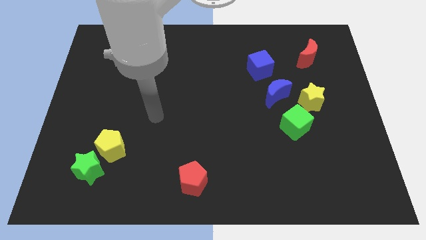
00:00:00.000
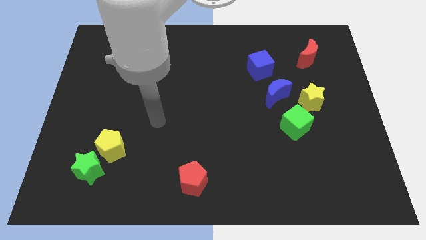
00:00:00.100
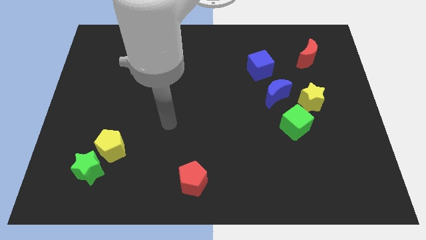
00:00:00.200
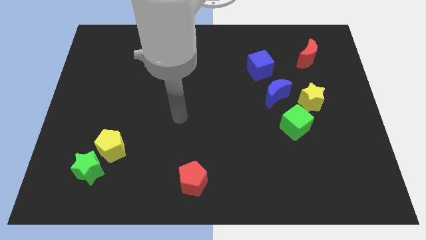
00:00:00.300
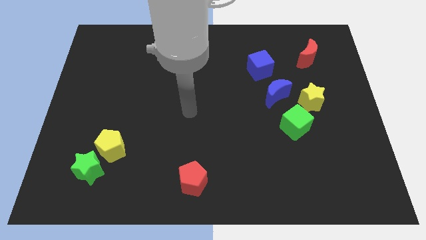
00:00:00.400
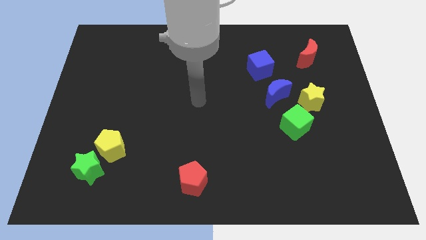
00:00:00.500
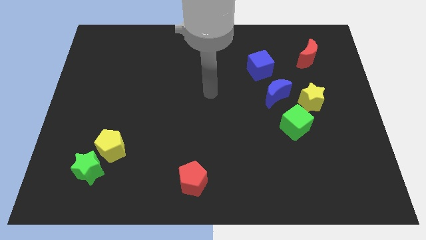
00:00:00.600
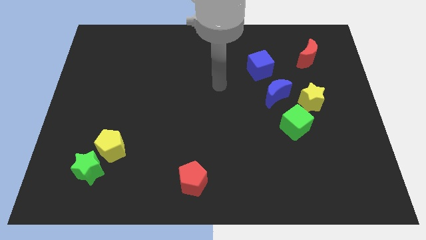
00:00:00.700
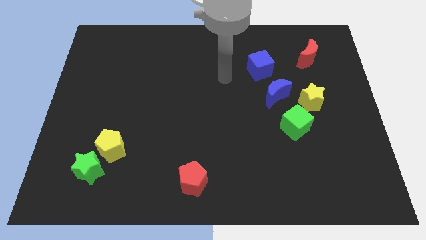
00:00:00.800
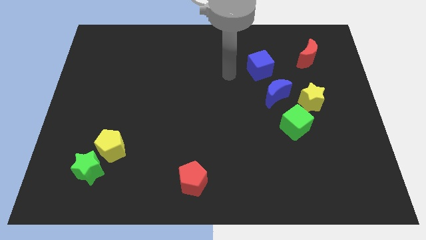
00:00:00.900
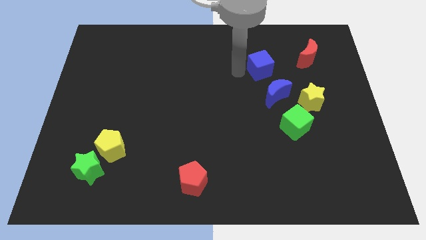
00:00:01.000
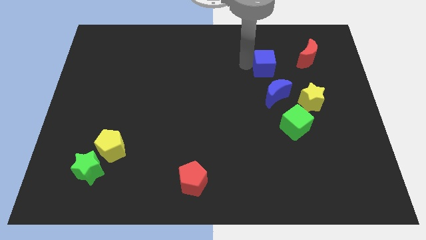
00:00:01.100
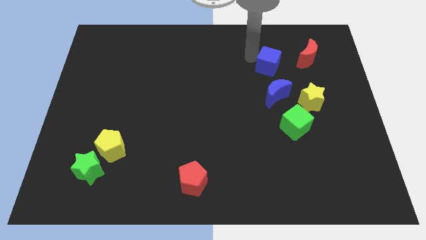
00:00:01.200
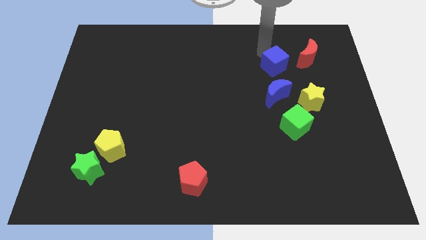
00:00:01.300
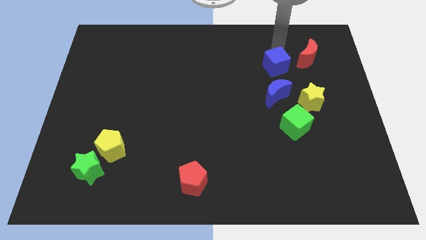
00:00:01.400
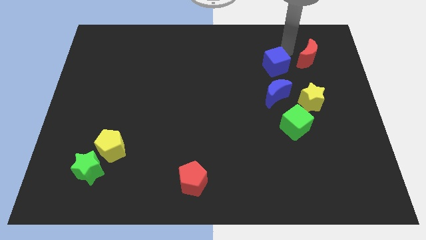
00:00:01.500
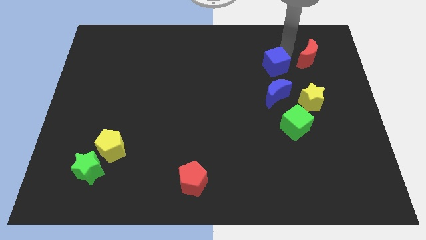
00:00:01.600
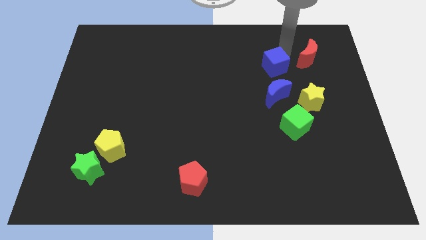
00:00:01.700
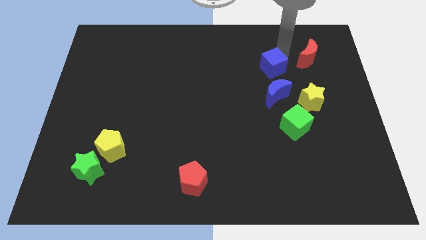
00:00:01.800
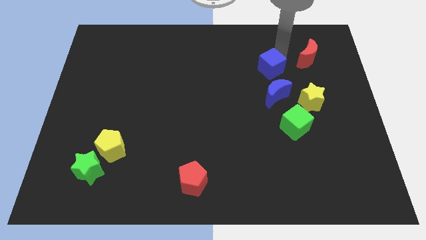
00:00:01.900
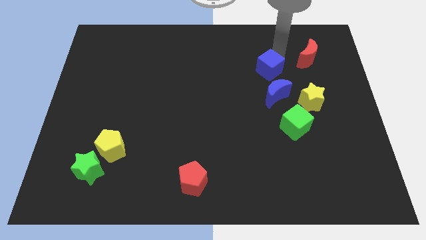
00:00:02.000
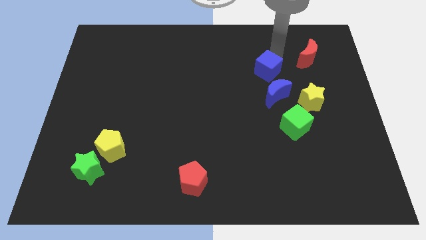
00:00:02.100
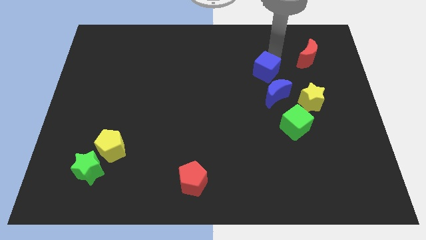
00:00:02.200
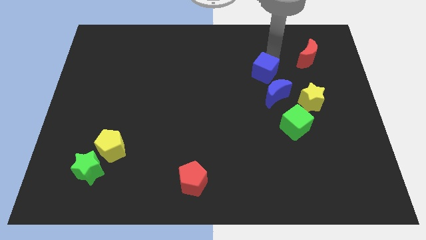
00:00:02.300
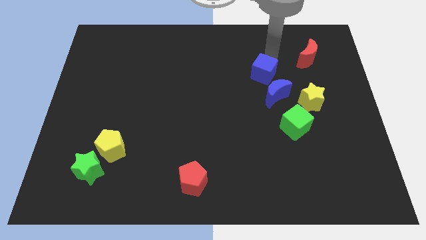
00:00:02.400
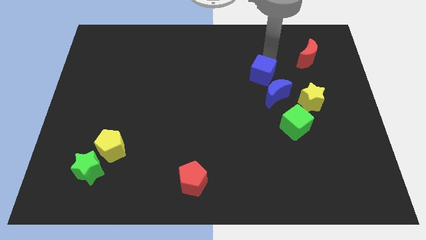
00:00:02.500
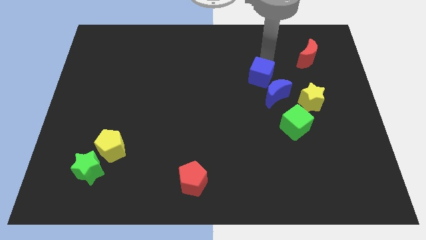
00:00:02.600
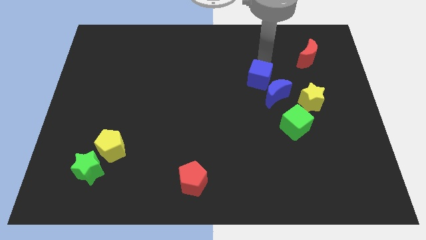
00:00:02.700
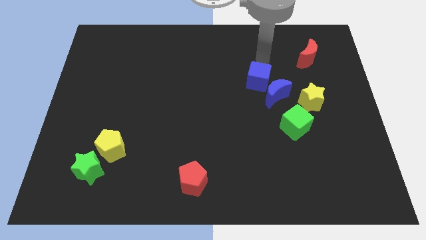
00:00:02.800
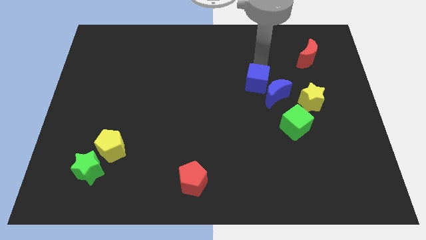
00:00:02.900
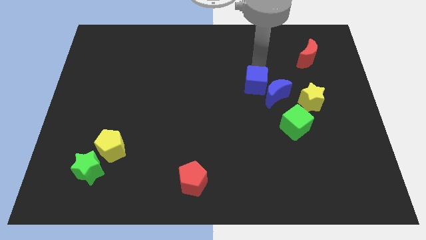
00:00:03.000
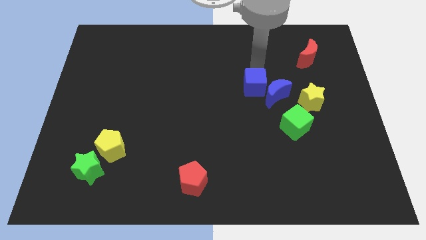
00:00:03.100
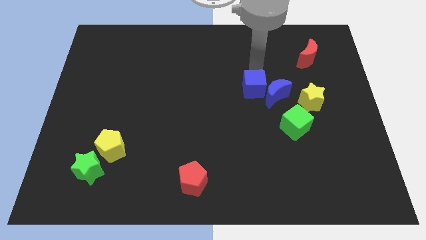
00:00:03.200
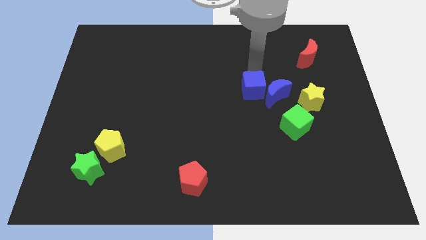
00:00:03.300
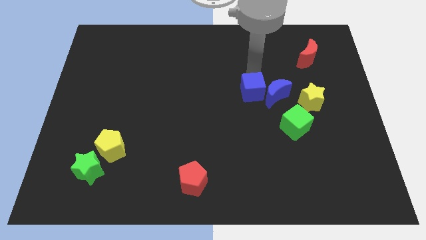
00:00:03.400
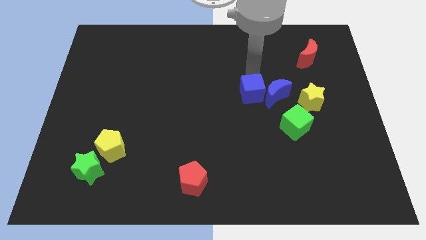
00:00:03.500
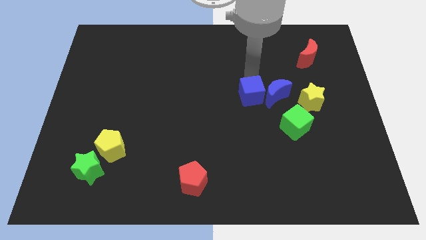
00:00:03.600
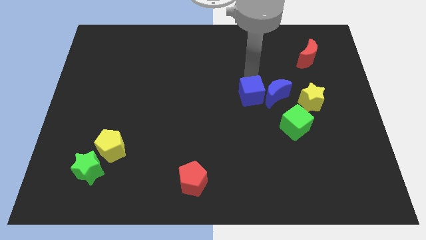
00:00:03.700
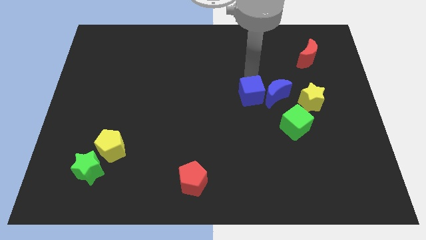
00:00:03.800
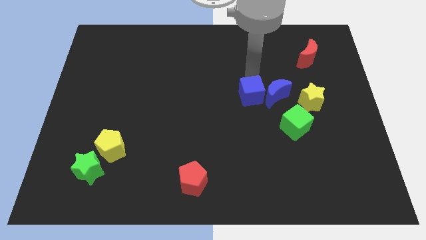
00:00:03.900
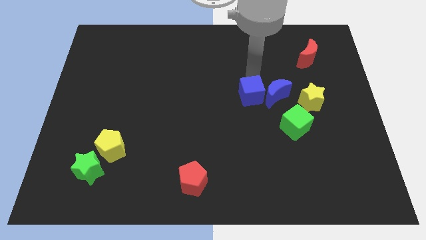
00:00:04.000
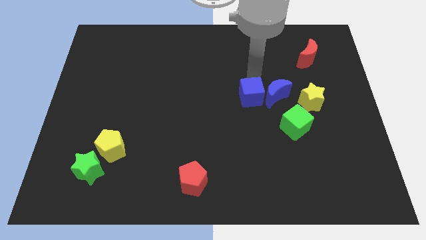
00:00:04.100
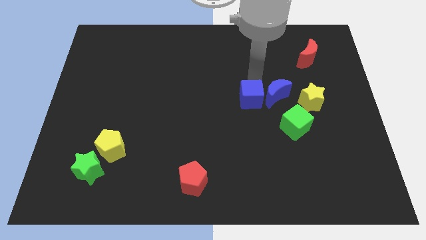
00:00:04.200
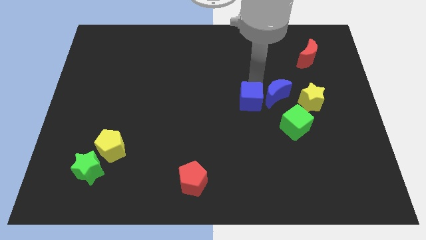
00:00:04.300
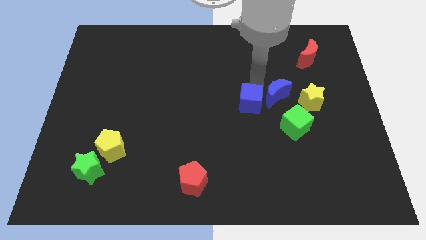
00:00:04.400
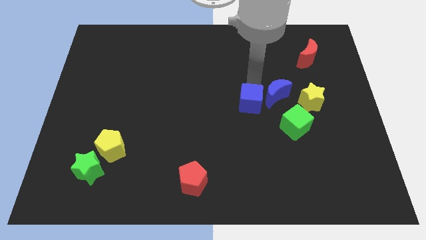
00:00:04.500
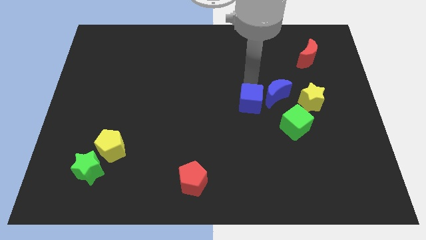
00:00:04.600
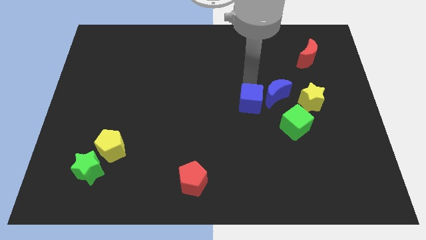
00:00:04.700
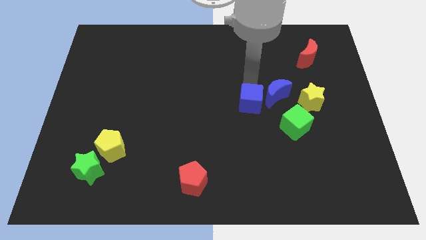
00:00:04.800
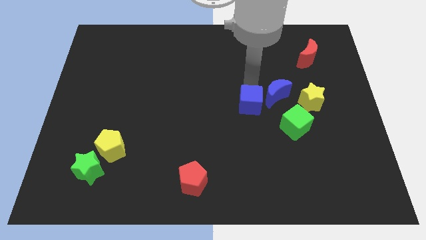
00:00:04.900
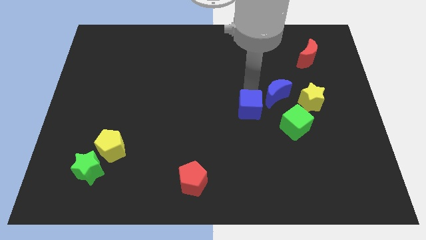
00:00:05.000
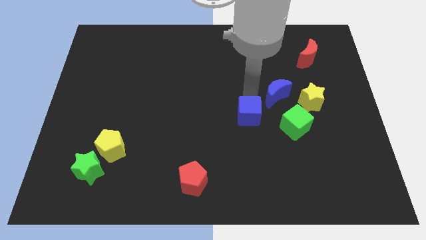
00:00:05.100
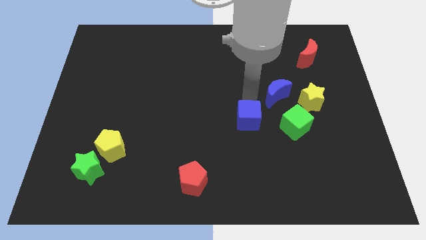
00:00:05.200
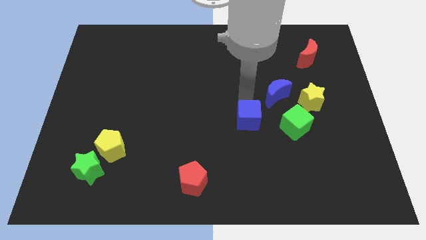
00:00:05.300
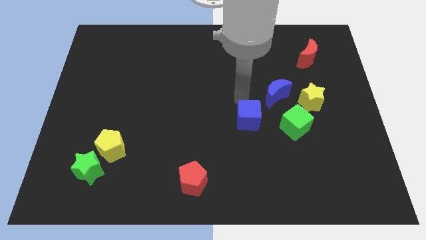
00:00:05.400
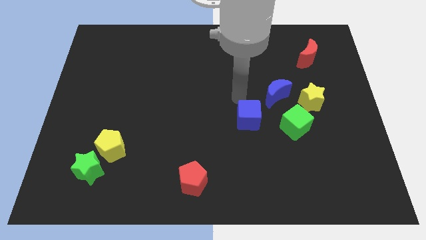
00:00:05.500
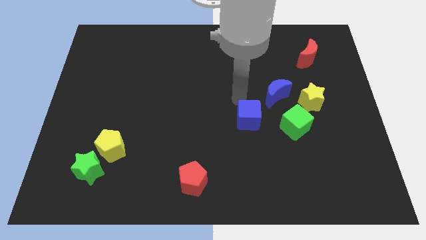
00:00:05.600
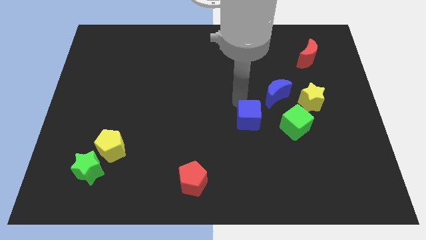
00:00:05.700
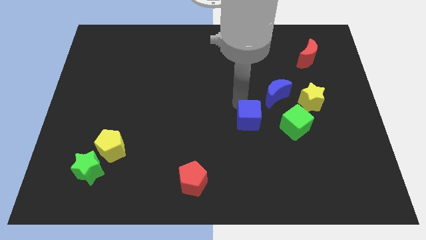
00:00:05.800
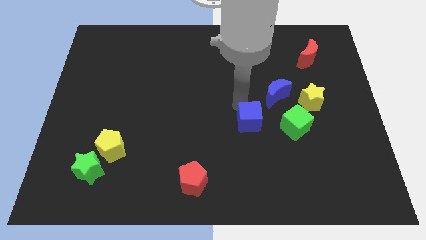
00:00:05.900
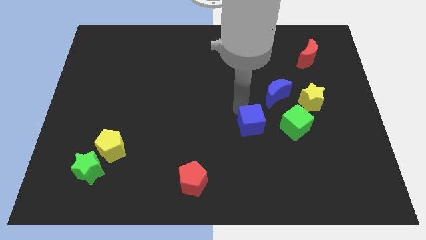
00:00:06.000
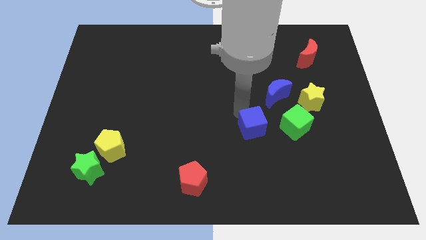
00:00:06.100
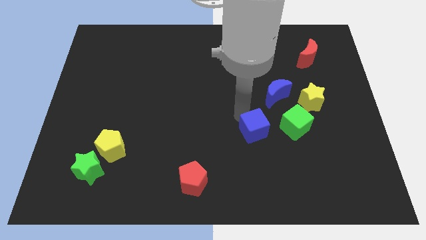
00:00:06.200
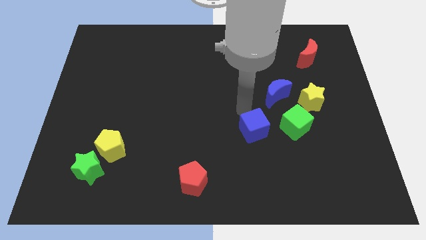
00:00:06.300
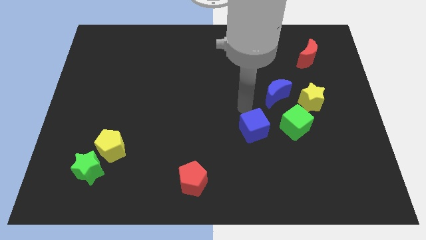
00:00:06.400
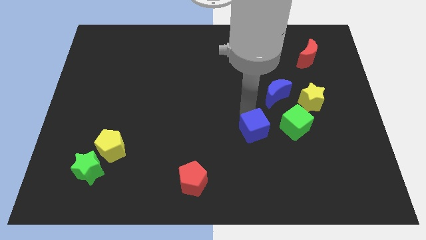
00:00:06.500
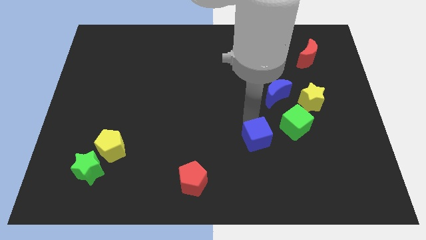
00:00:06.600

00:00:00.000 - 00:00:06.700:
move the blue cube downwards

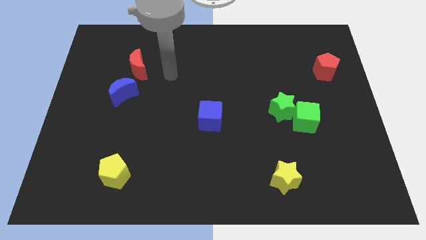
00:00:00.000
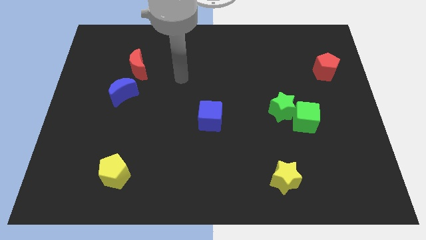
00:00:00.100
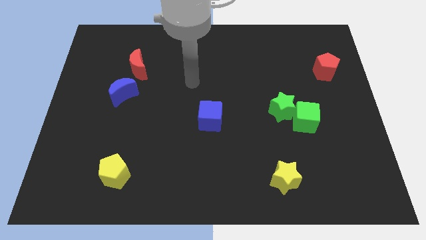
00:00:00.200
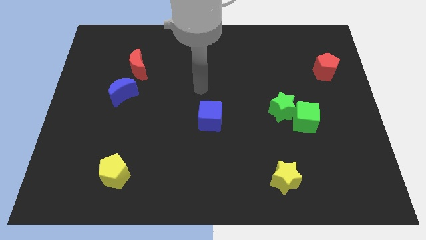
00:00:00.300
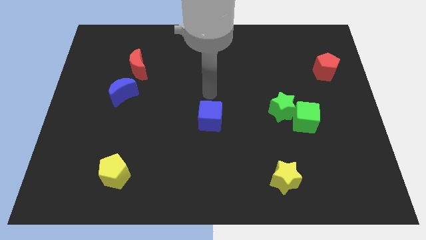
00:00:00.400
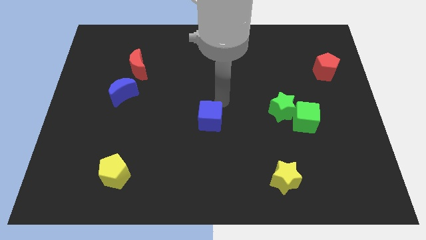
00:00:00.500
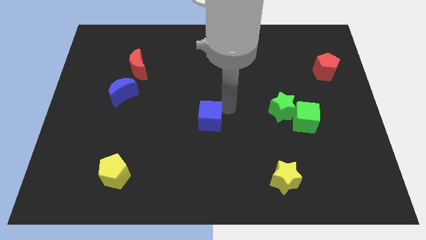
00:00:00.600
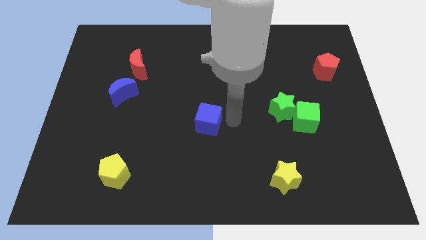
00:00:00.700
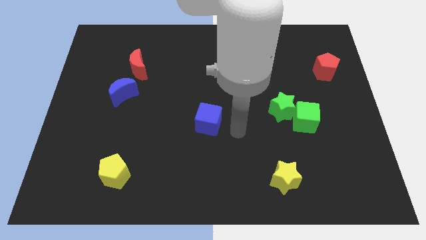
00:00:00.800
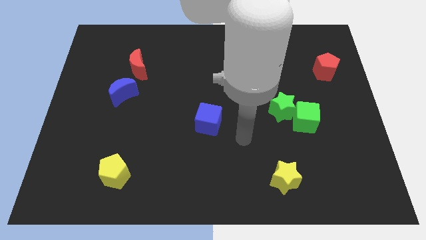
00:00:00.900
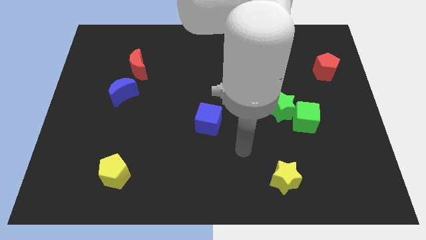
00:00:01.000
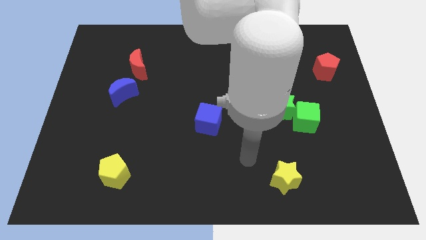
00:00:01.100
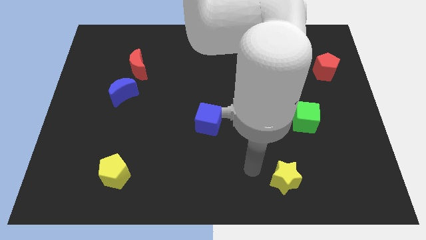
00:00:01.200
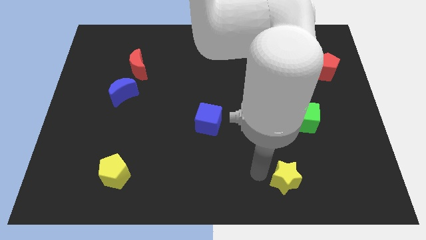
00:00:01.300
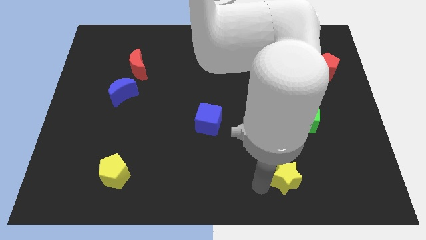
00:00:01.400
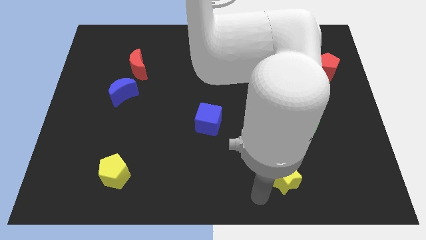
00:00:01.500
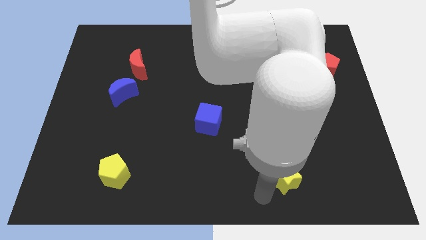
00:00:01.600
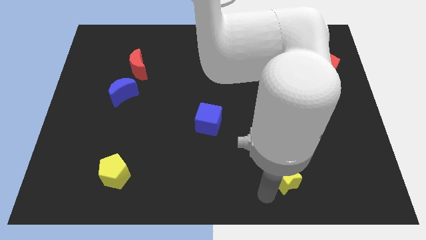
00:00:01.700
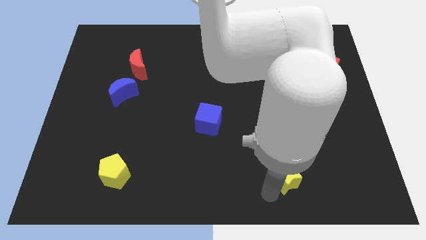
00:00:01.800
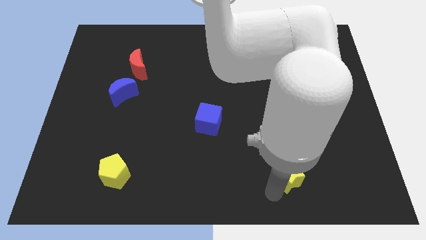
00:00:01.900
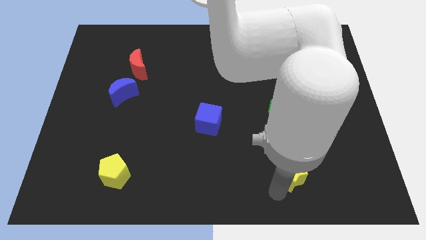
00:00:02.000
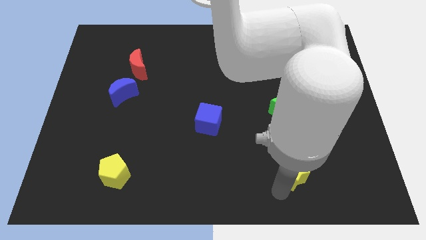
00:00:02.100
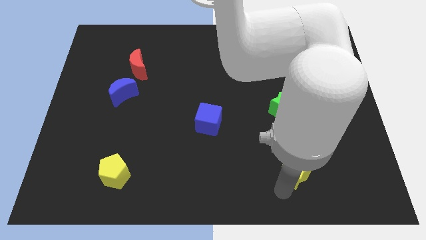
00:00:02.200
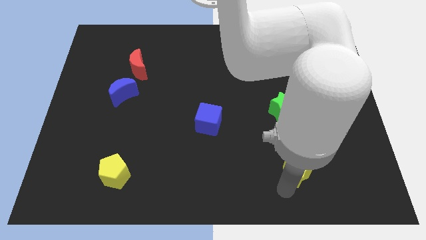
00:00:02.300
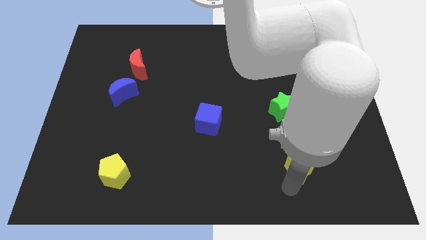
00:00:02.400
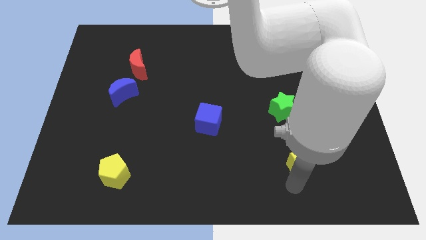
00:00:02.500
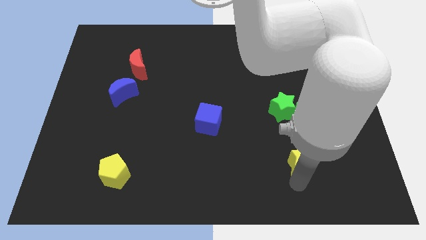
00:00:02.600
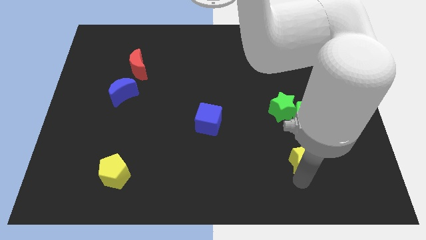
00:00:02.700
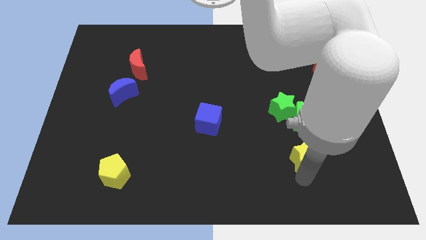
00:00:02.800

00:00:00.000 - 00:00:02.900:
move the yellow star somewhat up and then right
